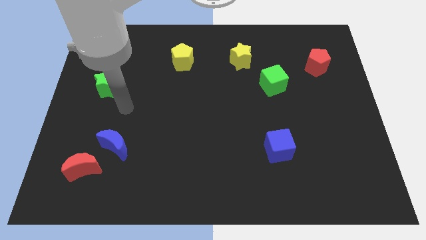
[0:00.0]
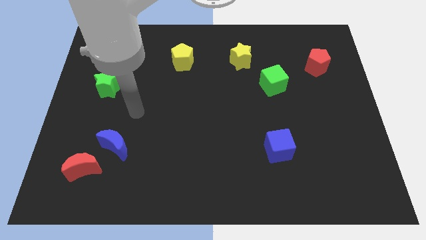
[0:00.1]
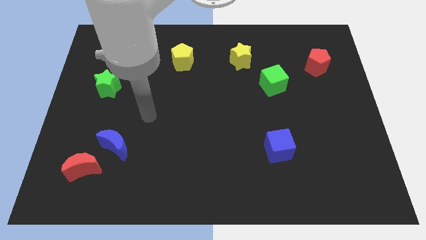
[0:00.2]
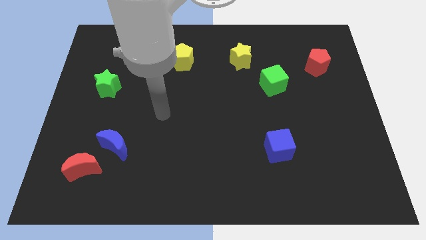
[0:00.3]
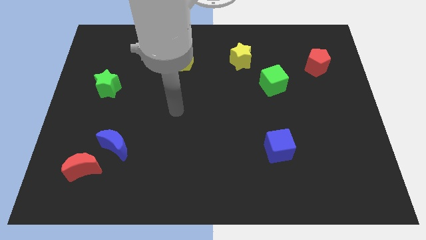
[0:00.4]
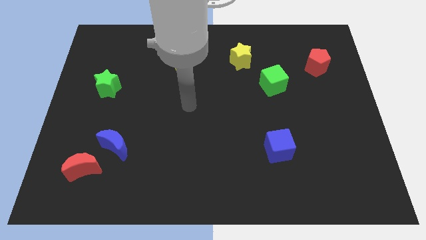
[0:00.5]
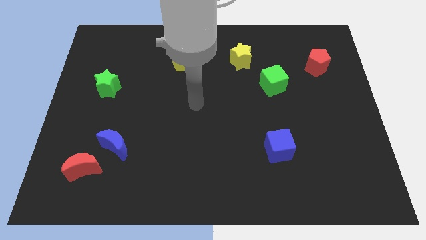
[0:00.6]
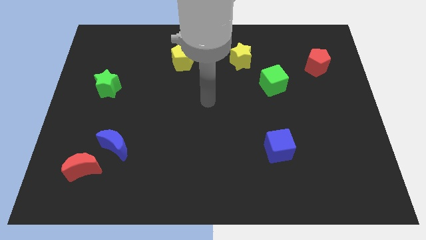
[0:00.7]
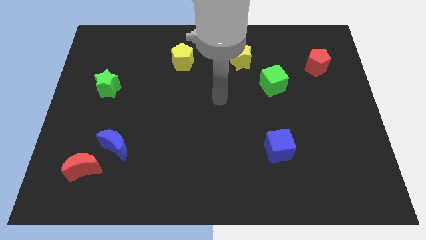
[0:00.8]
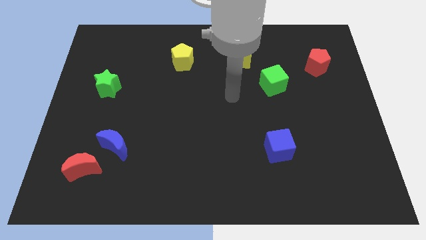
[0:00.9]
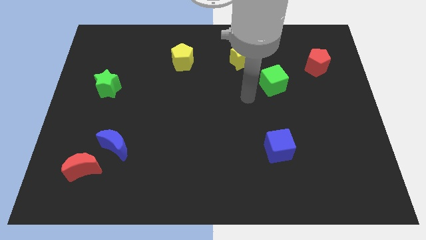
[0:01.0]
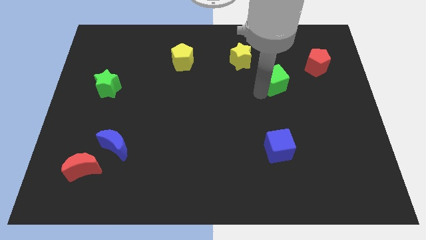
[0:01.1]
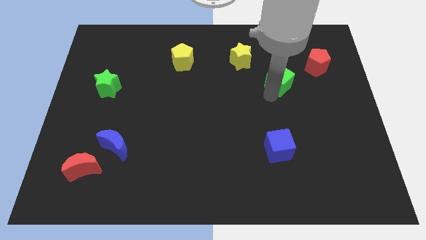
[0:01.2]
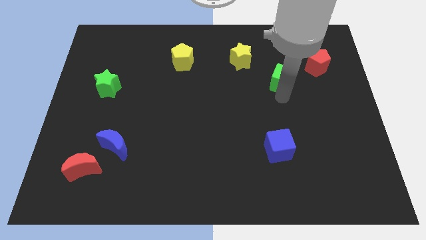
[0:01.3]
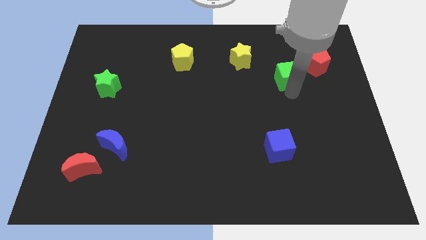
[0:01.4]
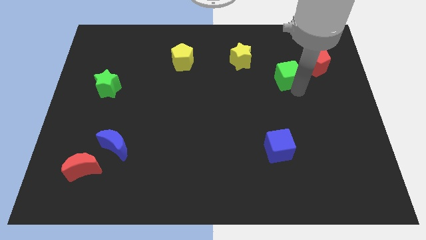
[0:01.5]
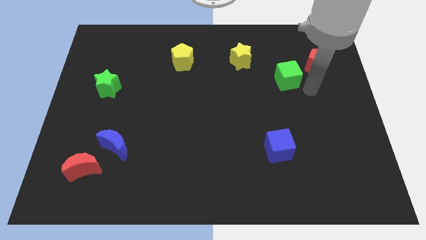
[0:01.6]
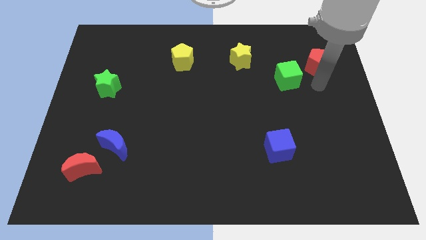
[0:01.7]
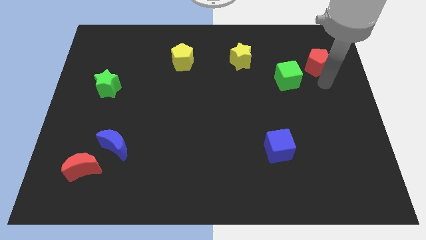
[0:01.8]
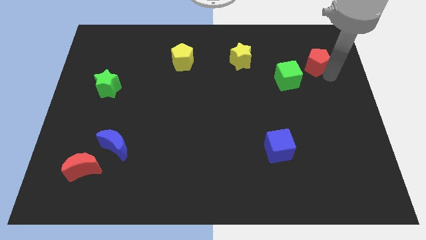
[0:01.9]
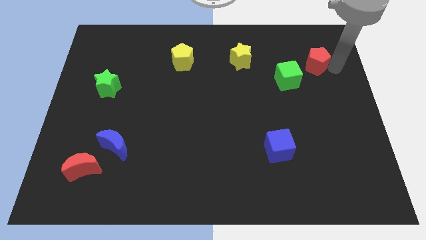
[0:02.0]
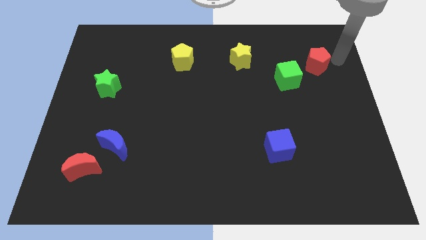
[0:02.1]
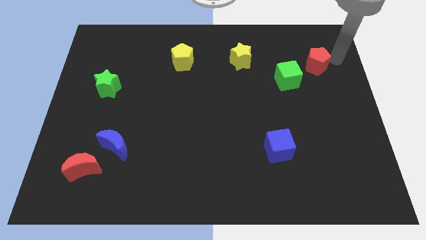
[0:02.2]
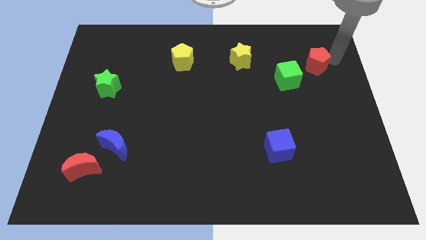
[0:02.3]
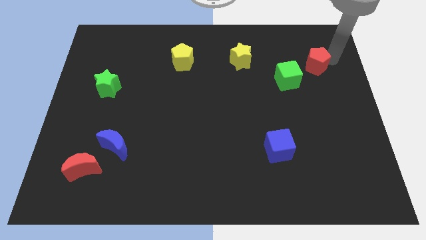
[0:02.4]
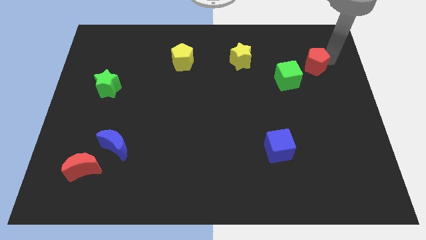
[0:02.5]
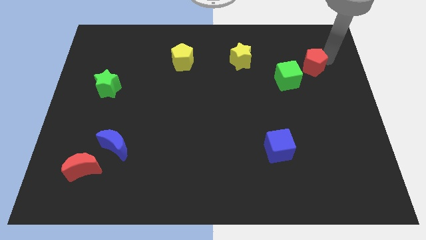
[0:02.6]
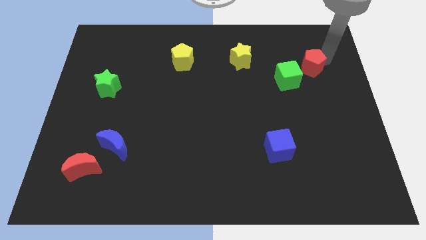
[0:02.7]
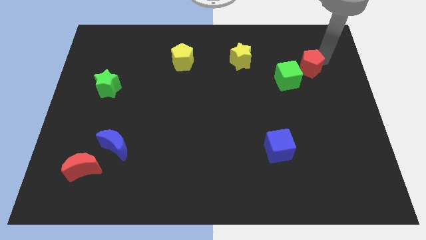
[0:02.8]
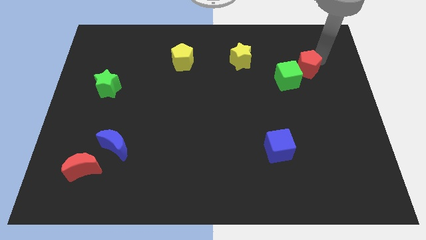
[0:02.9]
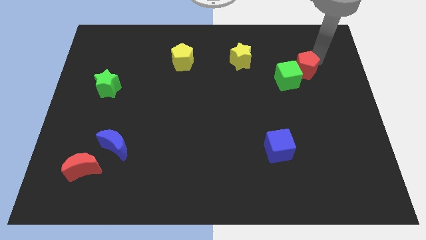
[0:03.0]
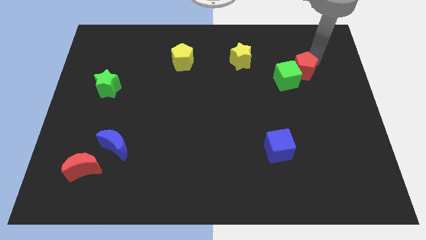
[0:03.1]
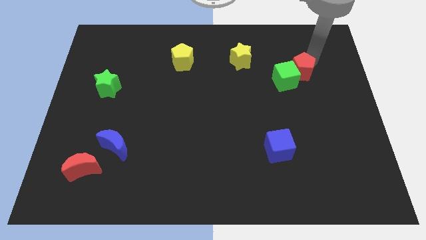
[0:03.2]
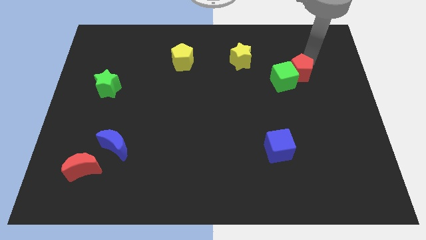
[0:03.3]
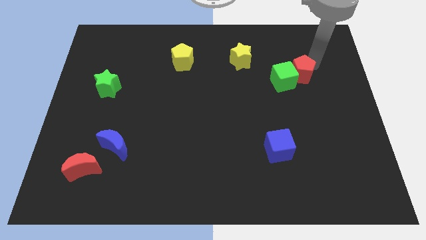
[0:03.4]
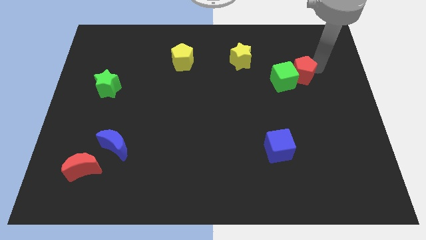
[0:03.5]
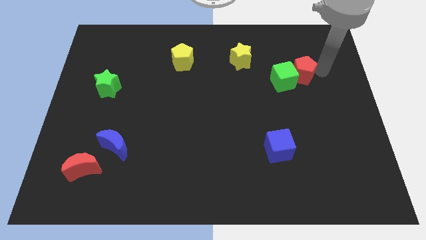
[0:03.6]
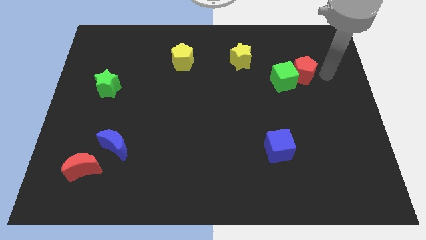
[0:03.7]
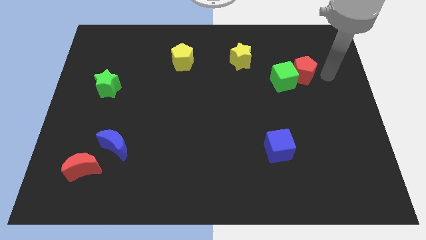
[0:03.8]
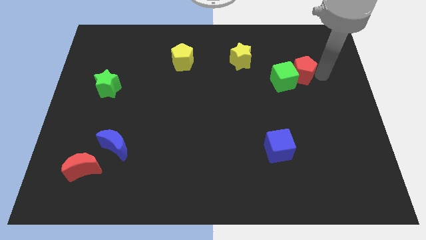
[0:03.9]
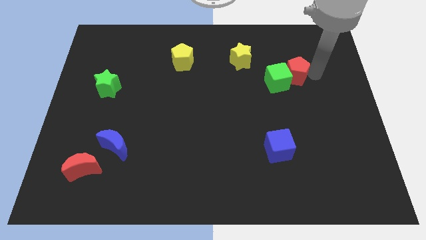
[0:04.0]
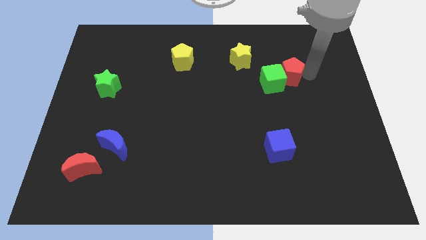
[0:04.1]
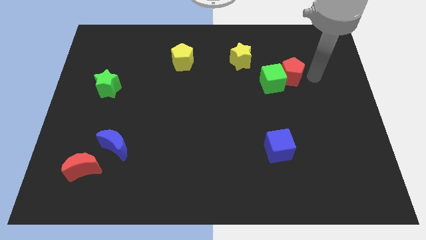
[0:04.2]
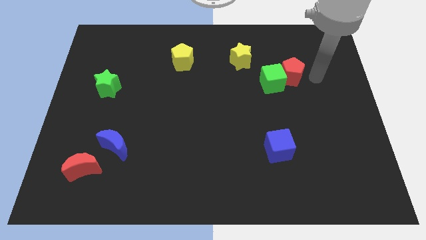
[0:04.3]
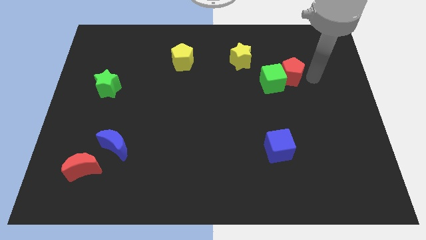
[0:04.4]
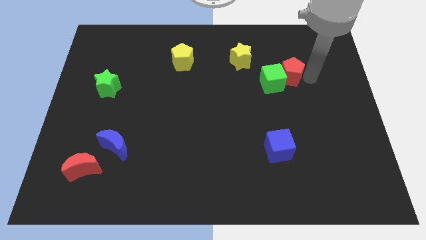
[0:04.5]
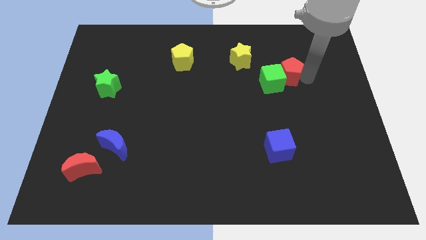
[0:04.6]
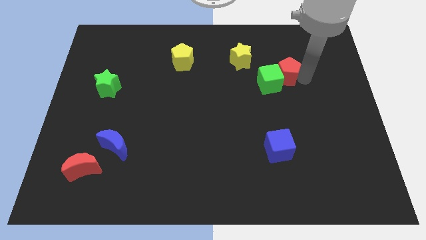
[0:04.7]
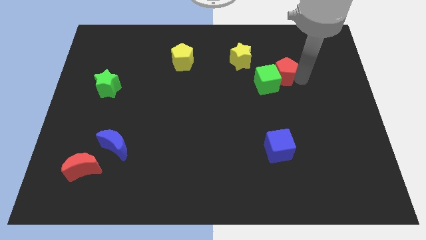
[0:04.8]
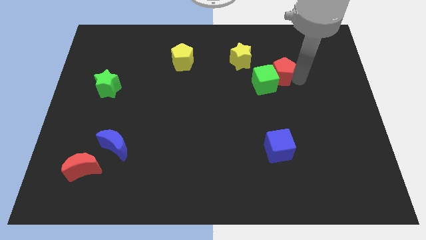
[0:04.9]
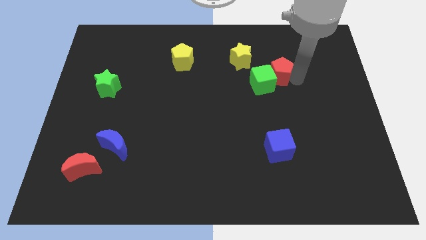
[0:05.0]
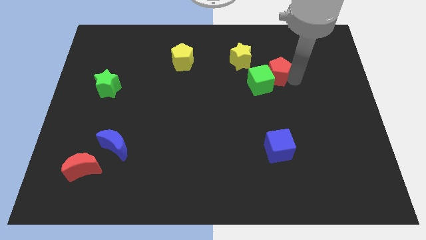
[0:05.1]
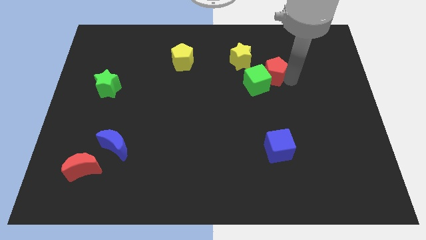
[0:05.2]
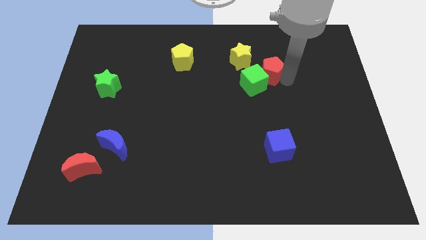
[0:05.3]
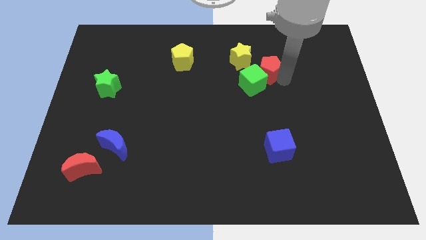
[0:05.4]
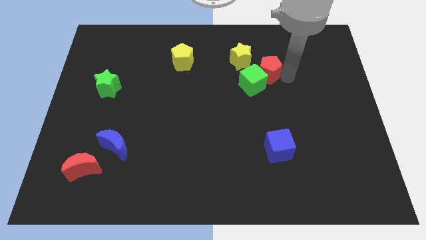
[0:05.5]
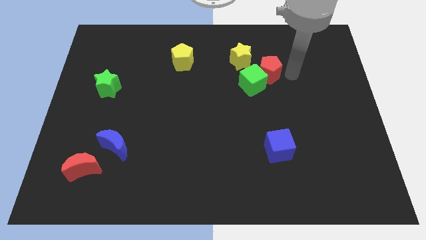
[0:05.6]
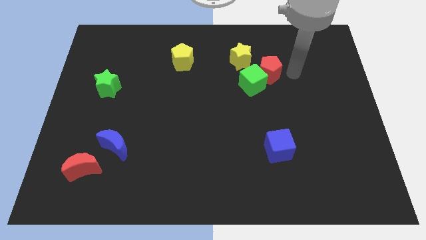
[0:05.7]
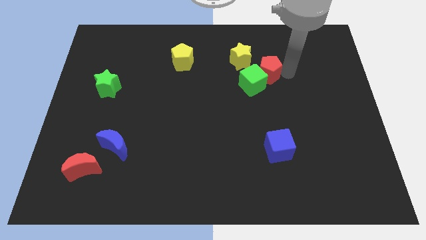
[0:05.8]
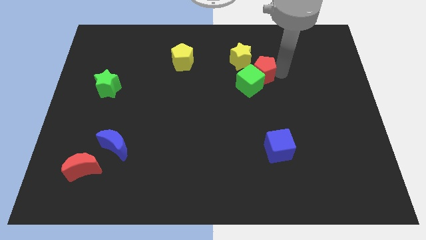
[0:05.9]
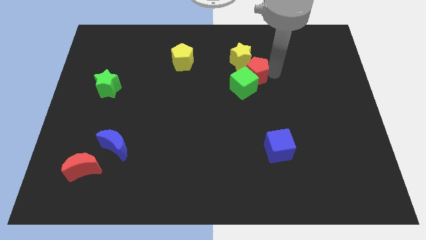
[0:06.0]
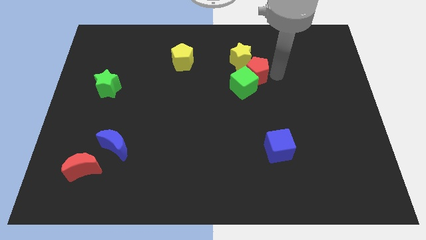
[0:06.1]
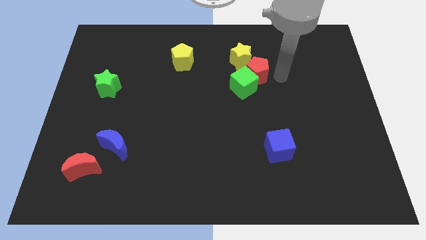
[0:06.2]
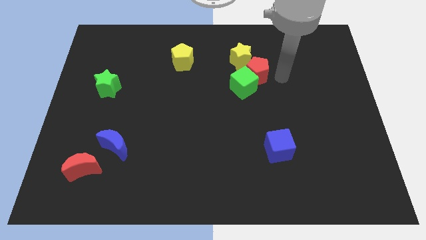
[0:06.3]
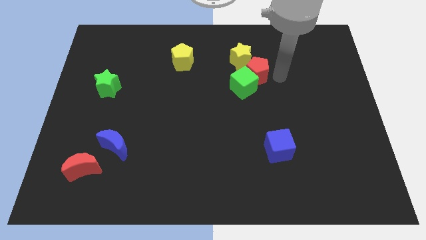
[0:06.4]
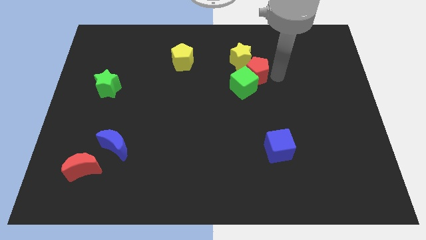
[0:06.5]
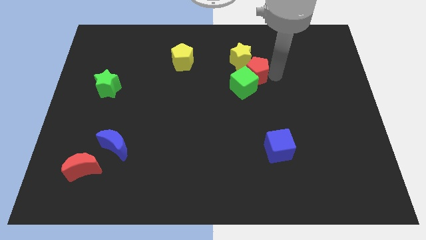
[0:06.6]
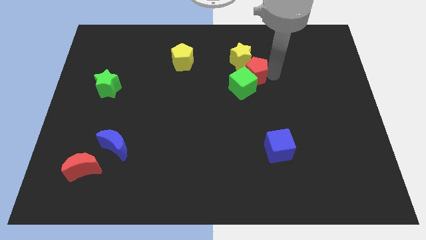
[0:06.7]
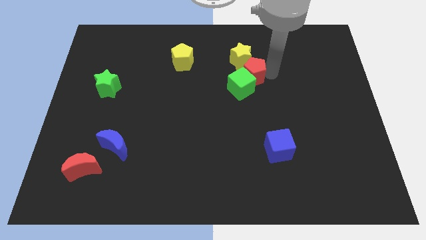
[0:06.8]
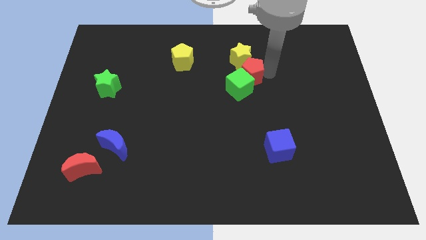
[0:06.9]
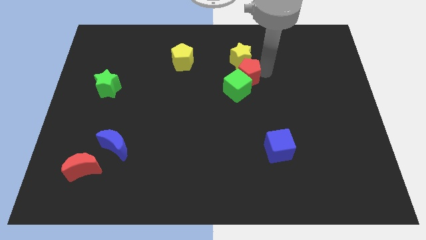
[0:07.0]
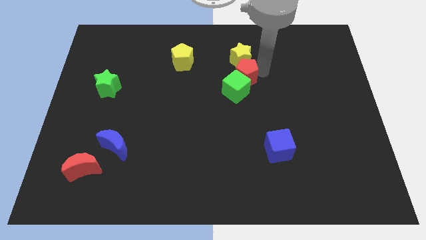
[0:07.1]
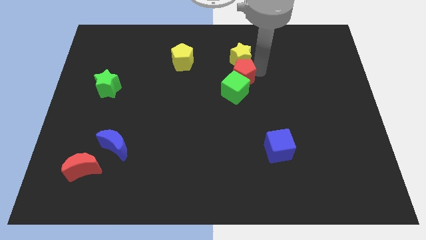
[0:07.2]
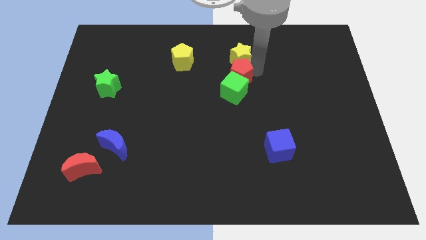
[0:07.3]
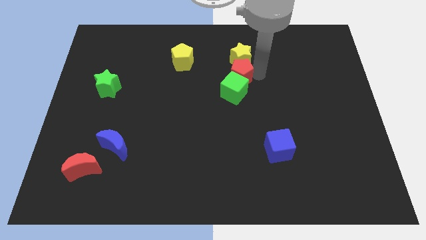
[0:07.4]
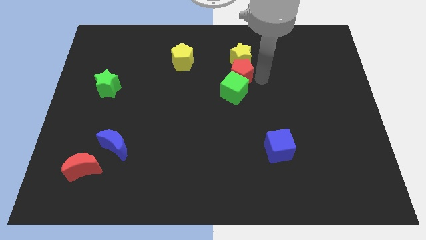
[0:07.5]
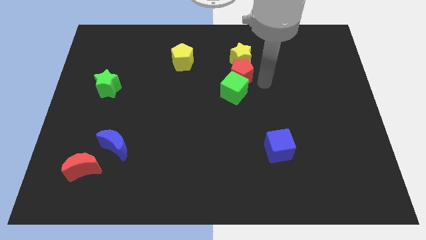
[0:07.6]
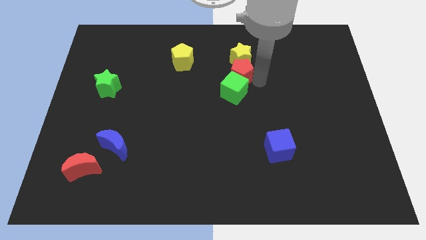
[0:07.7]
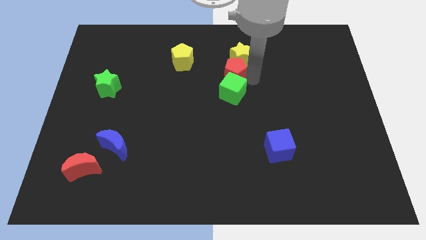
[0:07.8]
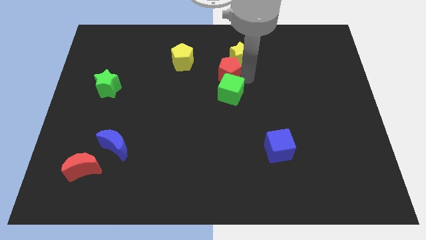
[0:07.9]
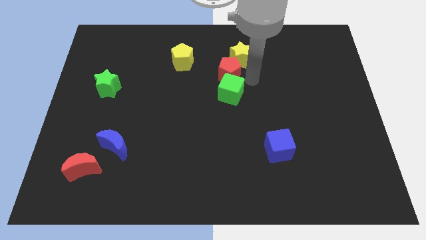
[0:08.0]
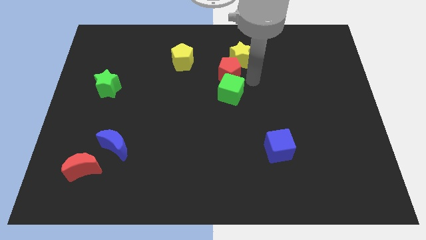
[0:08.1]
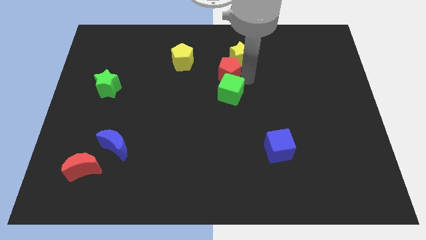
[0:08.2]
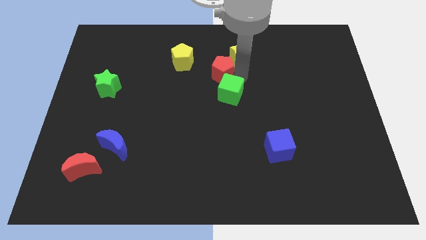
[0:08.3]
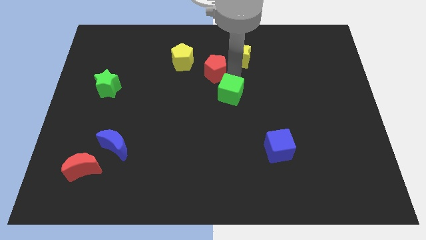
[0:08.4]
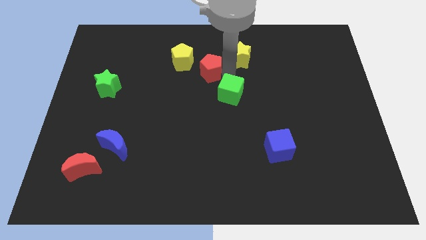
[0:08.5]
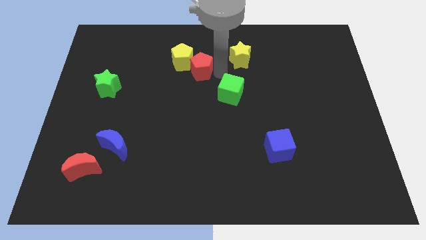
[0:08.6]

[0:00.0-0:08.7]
slide the red pentagon to the yellow pentagon
